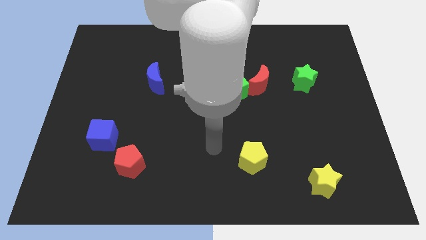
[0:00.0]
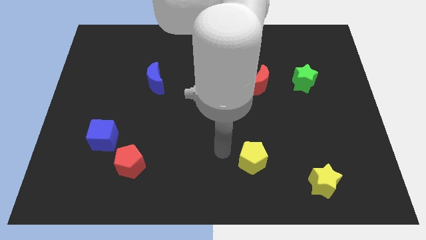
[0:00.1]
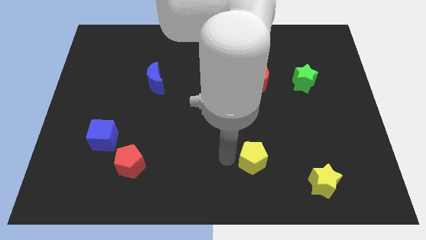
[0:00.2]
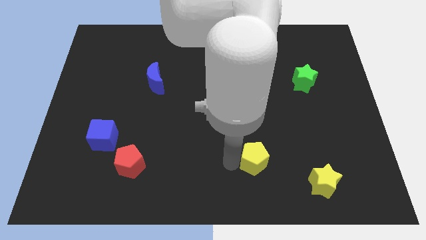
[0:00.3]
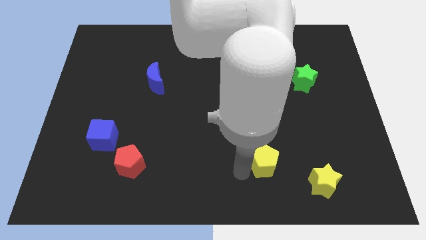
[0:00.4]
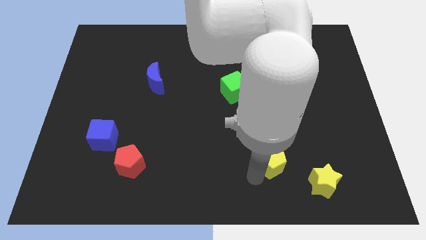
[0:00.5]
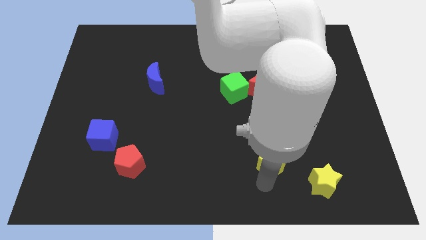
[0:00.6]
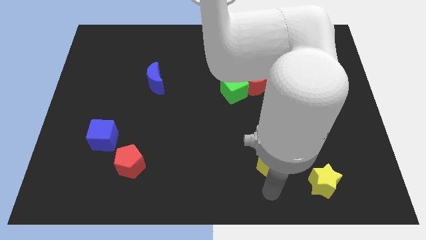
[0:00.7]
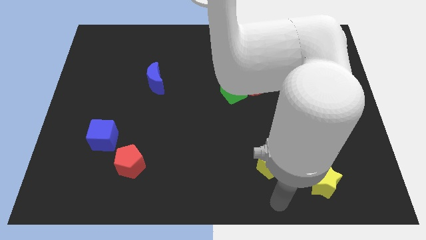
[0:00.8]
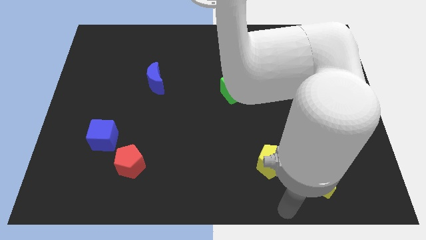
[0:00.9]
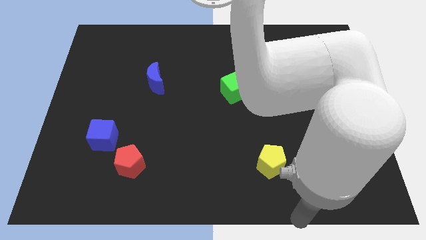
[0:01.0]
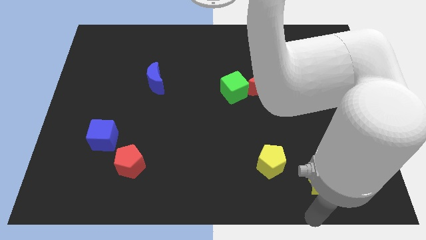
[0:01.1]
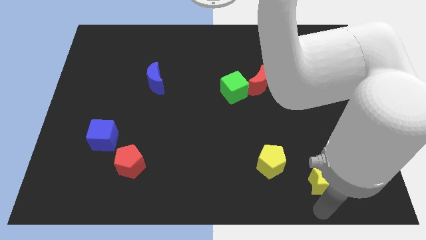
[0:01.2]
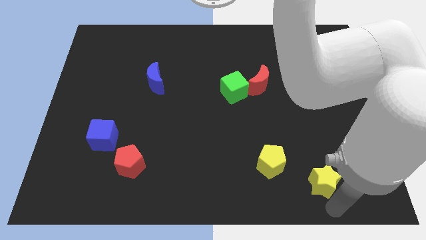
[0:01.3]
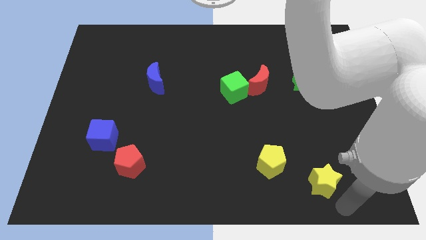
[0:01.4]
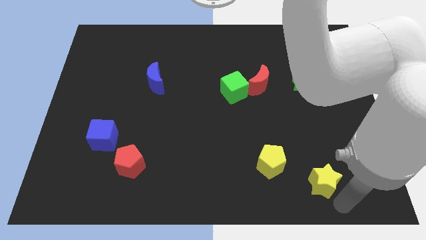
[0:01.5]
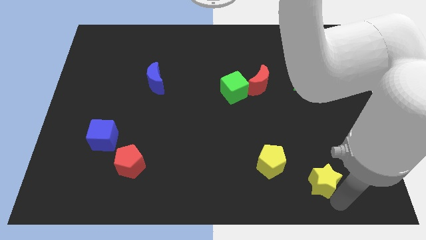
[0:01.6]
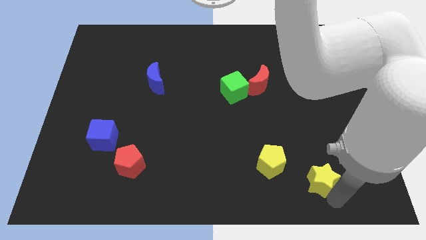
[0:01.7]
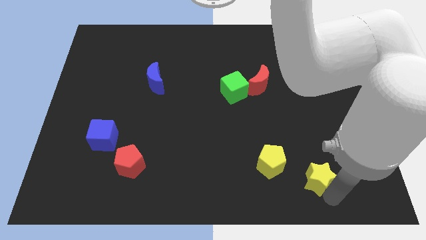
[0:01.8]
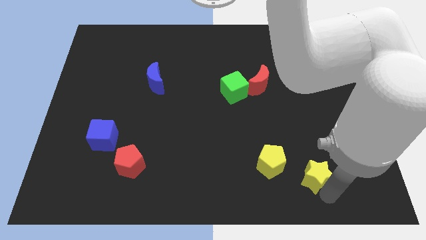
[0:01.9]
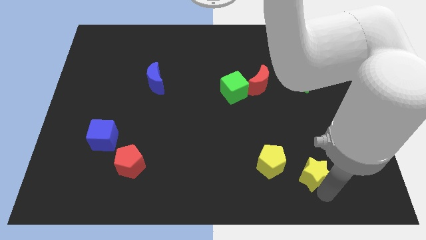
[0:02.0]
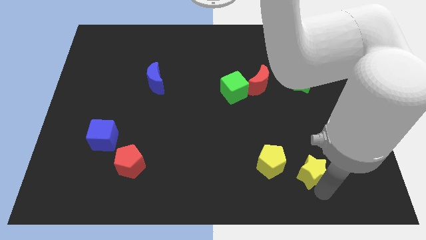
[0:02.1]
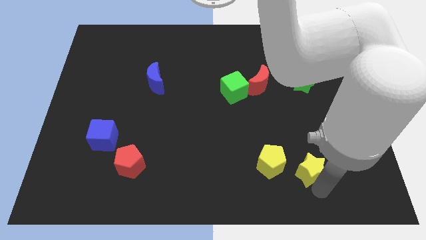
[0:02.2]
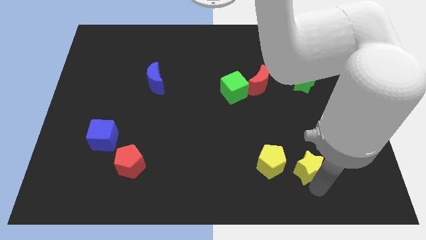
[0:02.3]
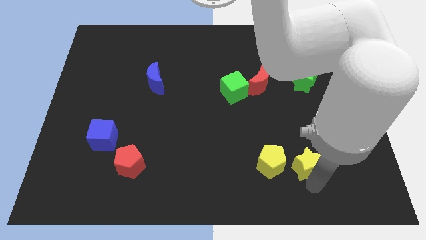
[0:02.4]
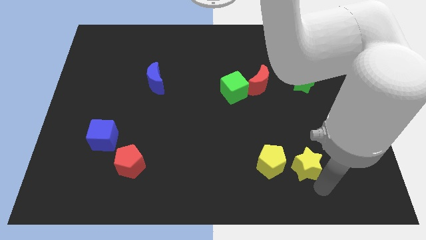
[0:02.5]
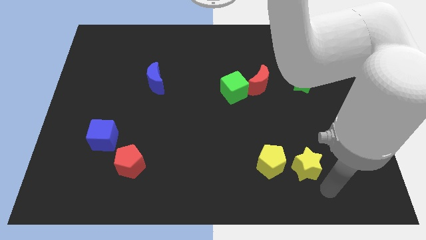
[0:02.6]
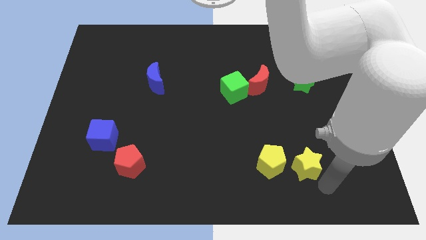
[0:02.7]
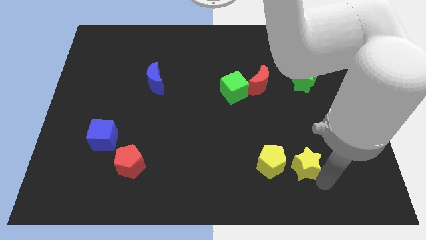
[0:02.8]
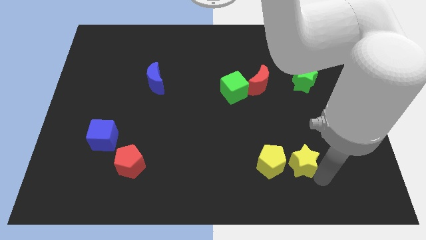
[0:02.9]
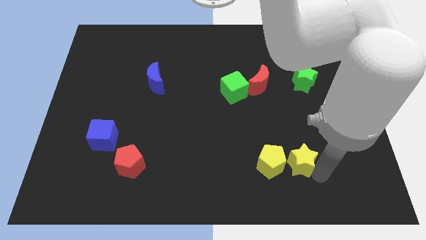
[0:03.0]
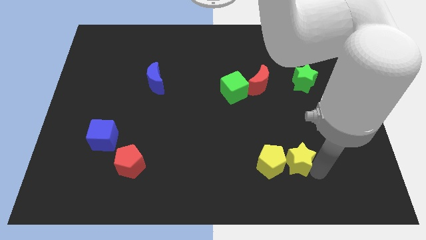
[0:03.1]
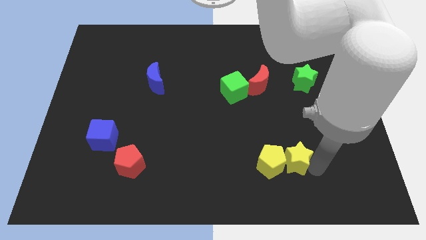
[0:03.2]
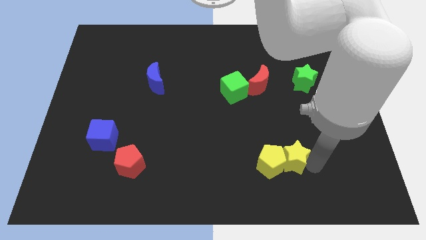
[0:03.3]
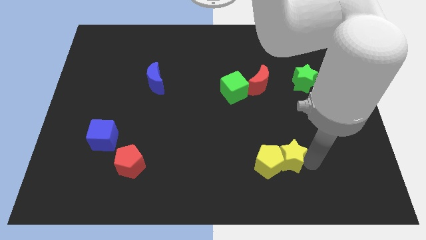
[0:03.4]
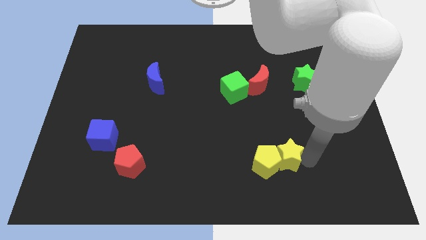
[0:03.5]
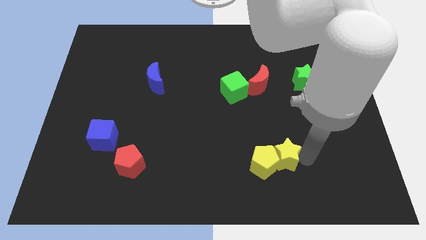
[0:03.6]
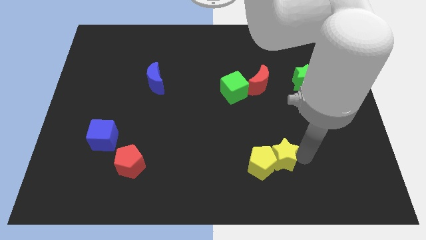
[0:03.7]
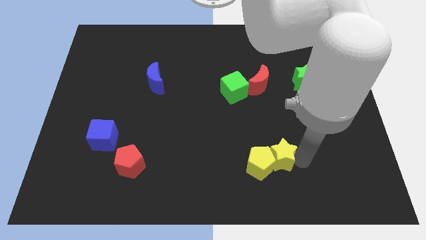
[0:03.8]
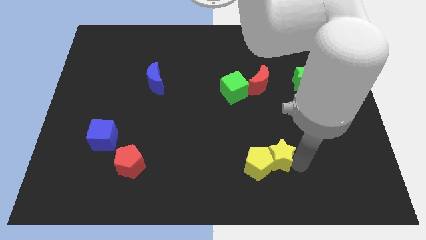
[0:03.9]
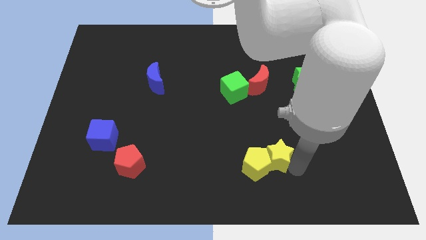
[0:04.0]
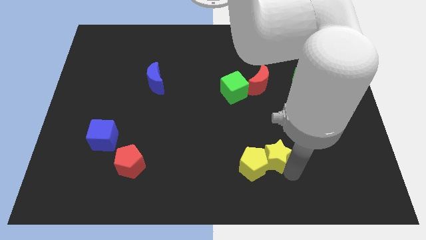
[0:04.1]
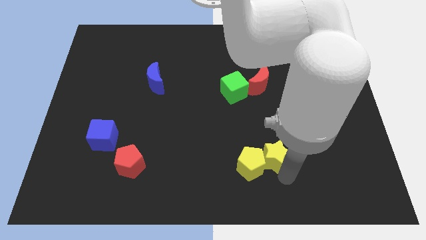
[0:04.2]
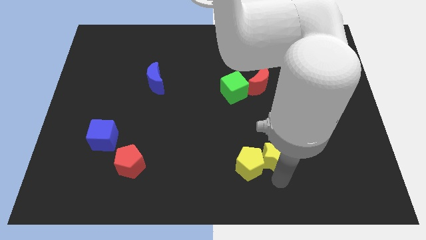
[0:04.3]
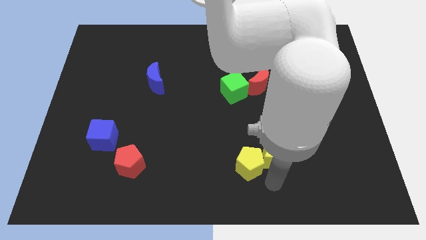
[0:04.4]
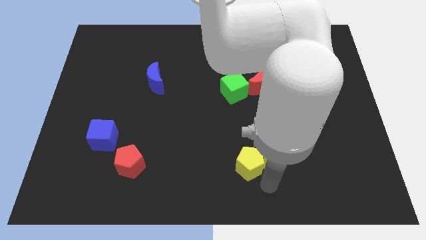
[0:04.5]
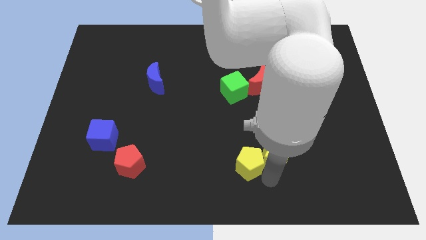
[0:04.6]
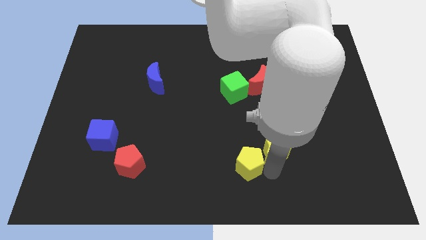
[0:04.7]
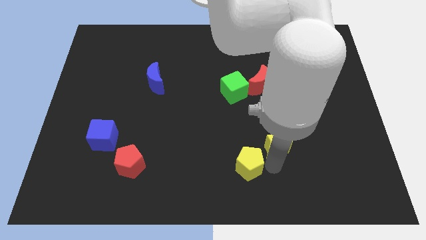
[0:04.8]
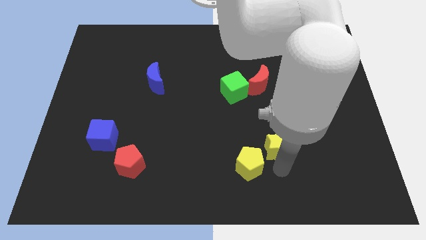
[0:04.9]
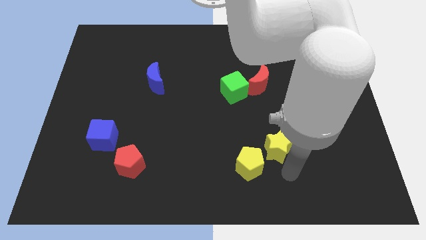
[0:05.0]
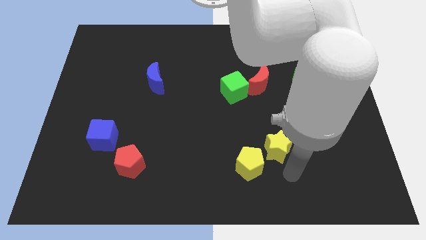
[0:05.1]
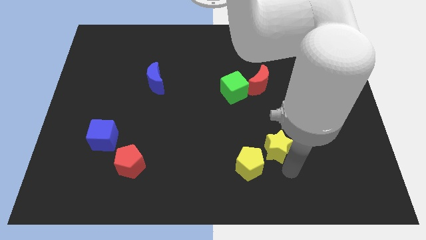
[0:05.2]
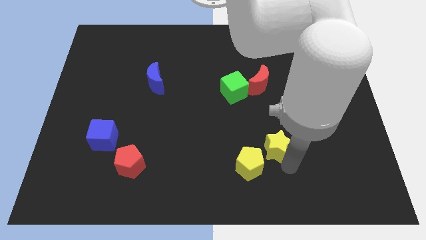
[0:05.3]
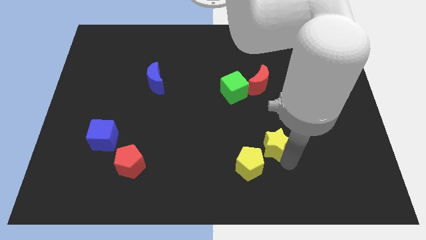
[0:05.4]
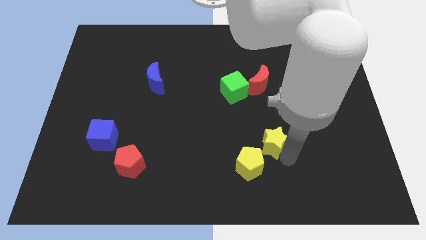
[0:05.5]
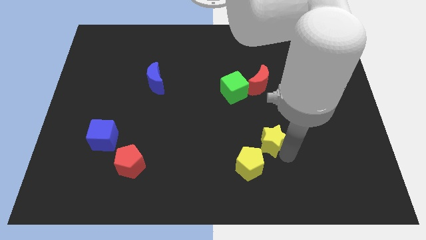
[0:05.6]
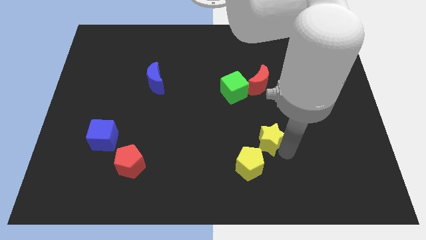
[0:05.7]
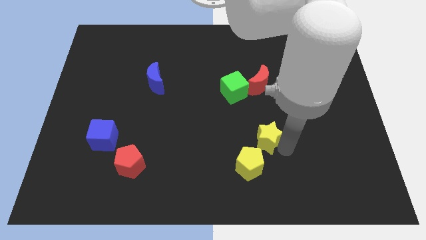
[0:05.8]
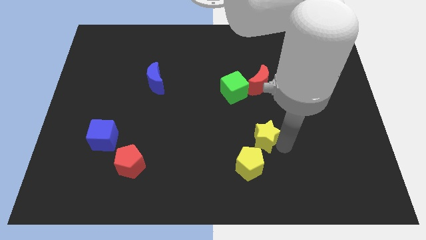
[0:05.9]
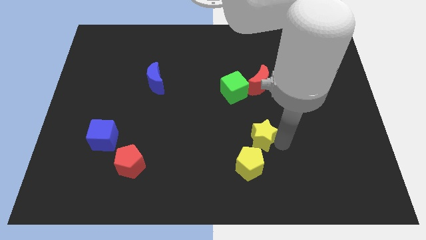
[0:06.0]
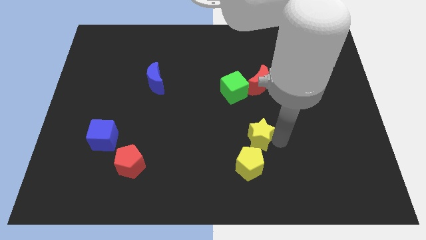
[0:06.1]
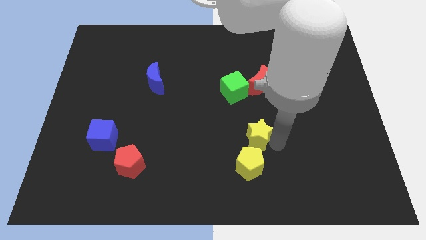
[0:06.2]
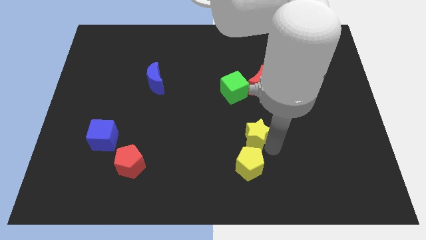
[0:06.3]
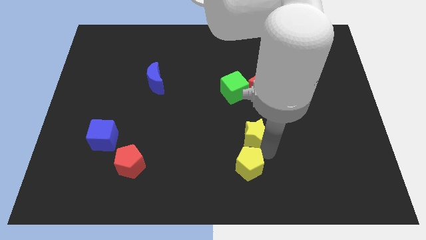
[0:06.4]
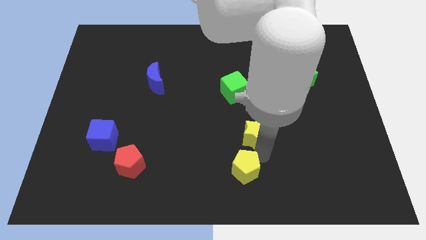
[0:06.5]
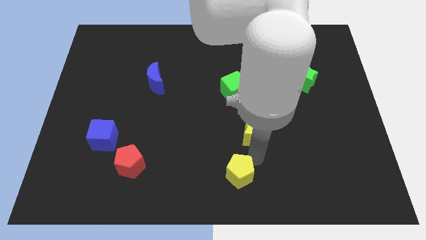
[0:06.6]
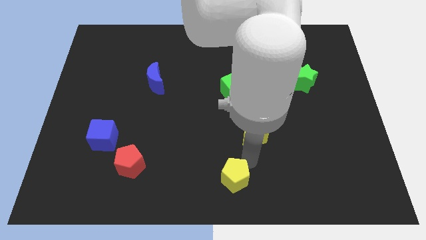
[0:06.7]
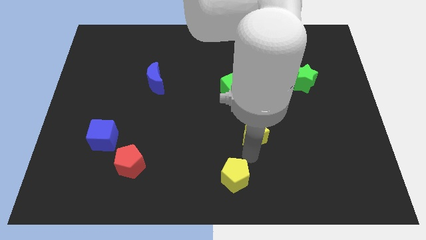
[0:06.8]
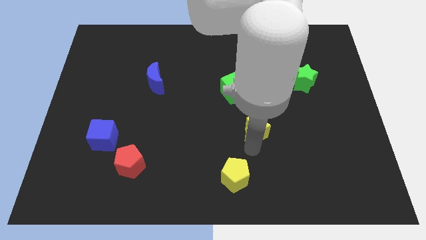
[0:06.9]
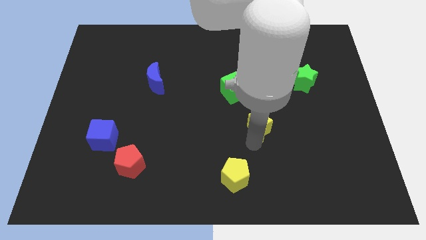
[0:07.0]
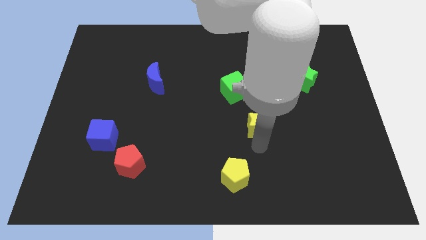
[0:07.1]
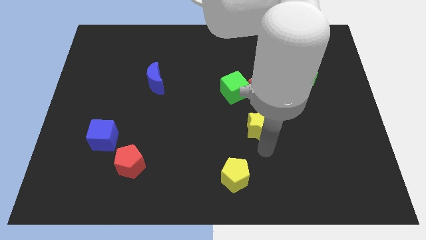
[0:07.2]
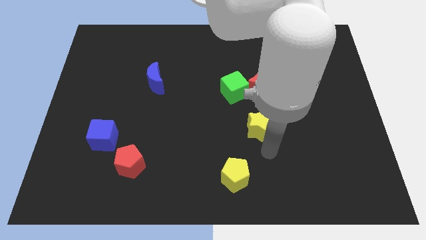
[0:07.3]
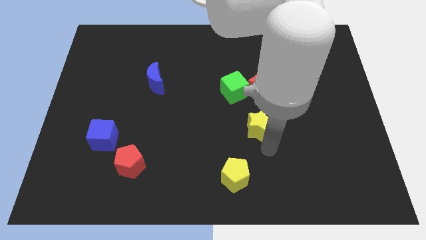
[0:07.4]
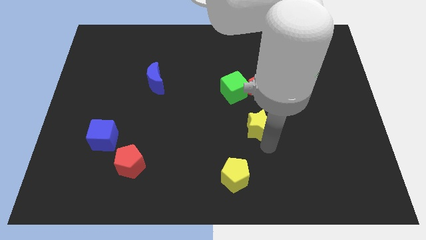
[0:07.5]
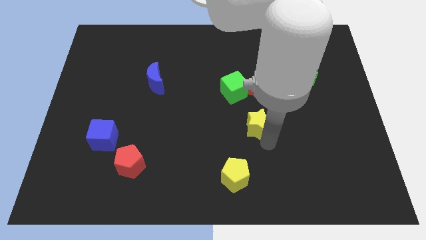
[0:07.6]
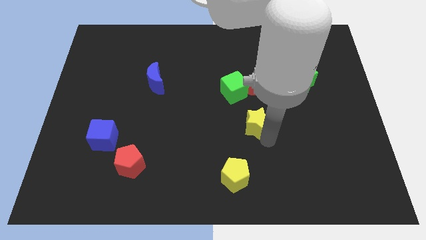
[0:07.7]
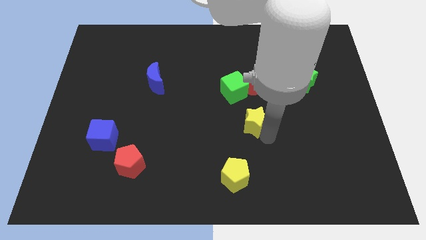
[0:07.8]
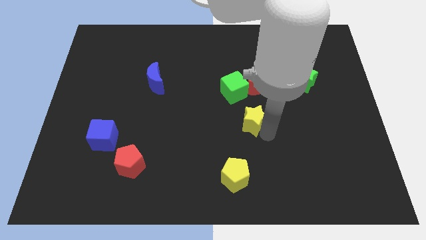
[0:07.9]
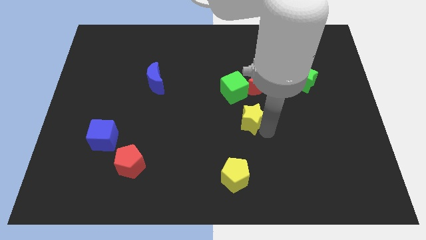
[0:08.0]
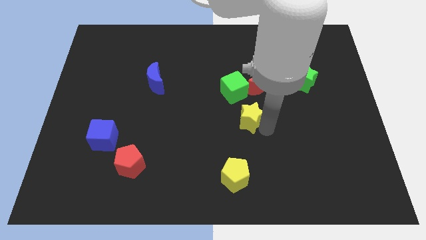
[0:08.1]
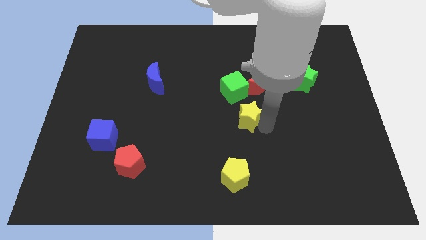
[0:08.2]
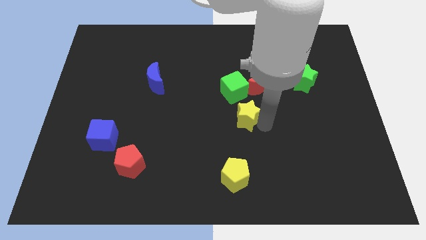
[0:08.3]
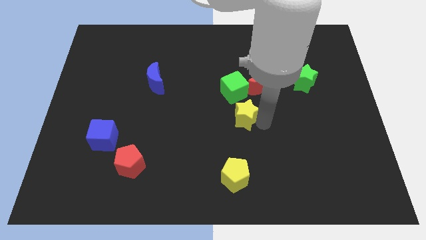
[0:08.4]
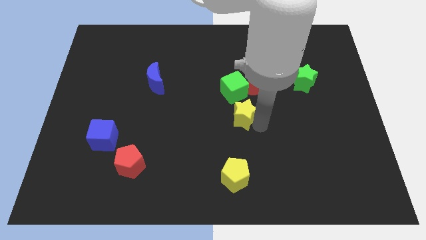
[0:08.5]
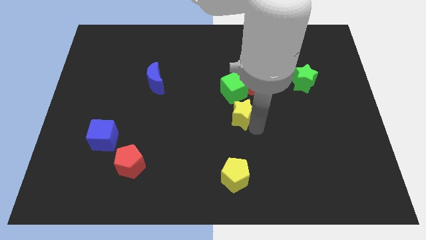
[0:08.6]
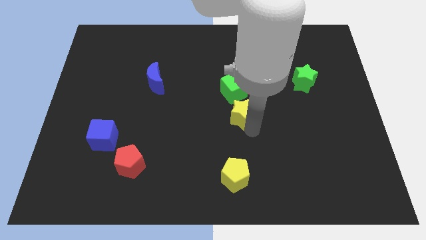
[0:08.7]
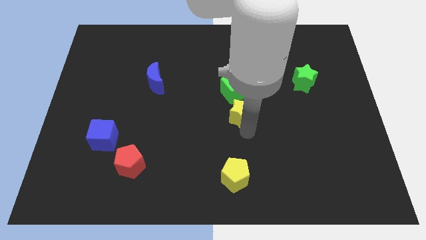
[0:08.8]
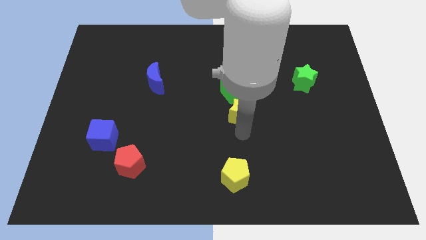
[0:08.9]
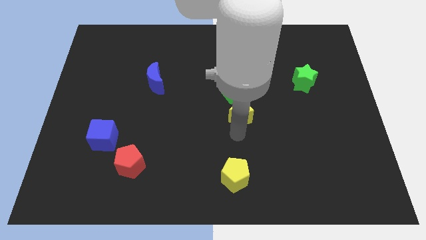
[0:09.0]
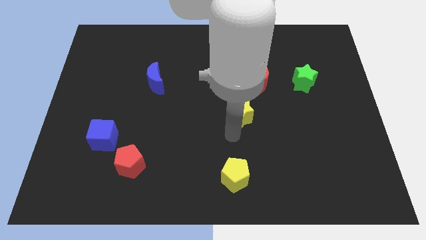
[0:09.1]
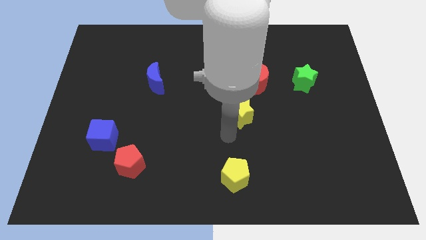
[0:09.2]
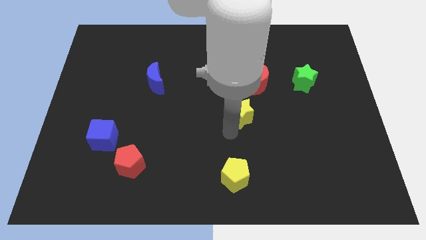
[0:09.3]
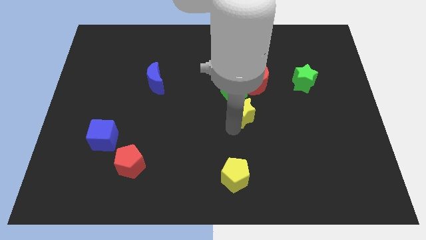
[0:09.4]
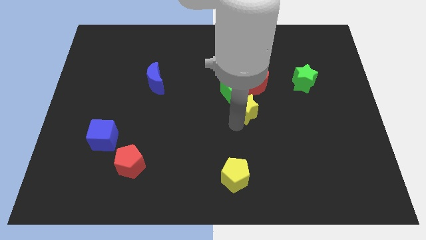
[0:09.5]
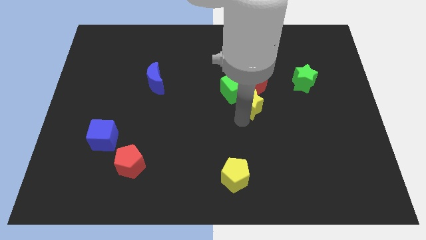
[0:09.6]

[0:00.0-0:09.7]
move the yellow star close to the green cube
